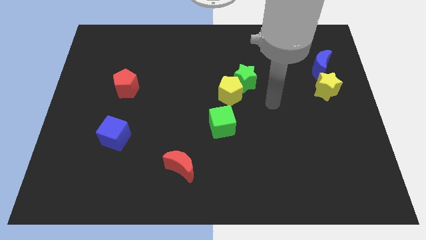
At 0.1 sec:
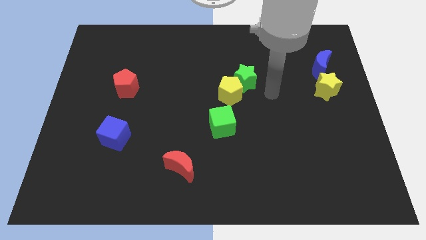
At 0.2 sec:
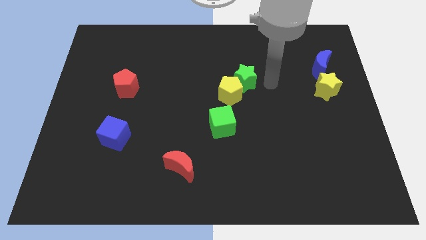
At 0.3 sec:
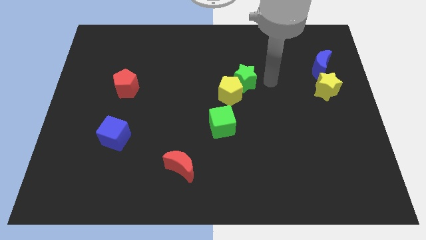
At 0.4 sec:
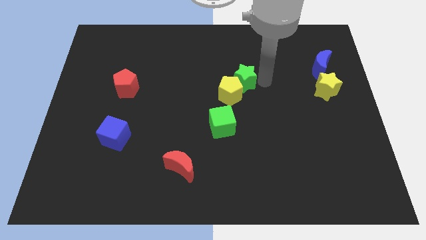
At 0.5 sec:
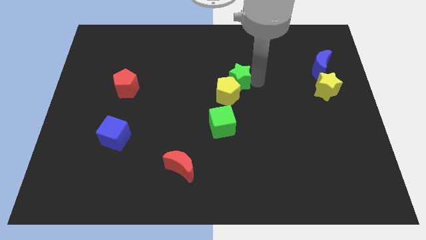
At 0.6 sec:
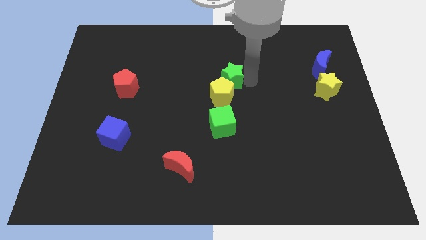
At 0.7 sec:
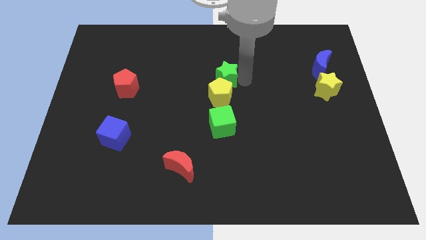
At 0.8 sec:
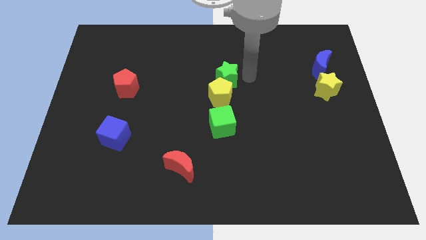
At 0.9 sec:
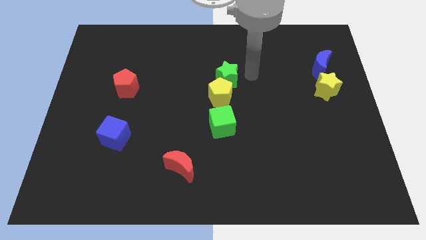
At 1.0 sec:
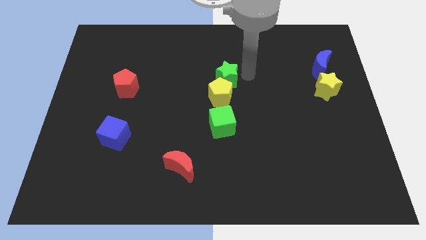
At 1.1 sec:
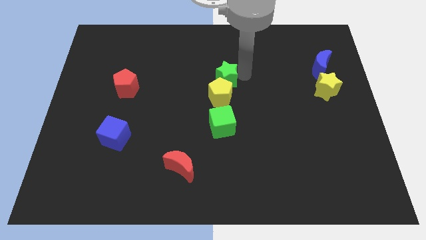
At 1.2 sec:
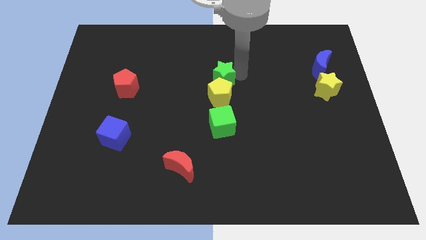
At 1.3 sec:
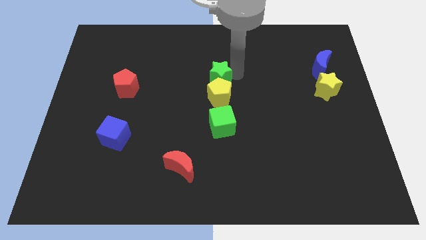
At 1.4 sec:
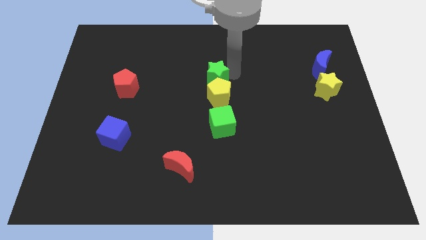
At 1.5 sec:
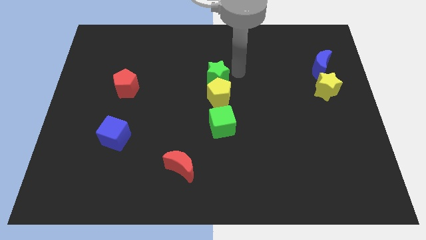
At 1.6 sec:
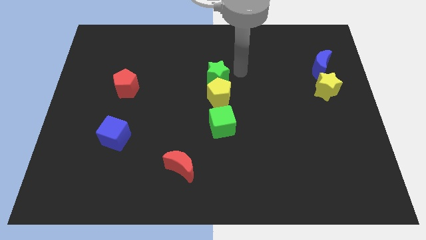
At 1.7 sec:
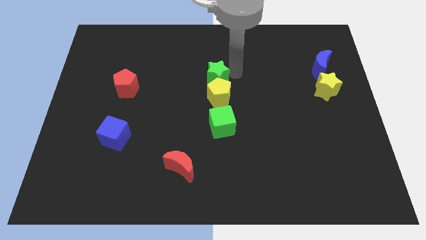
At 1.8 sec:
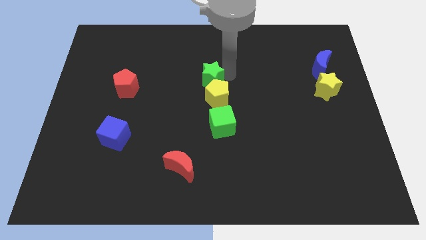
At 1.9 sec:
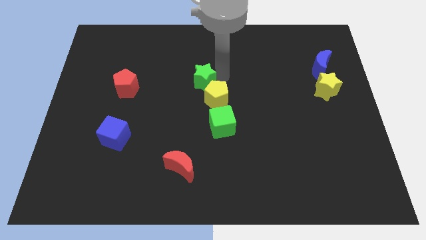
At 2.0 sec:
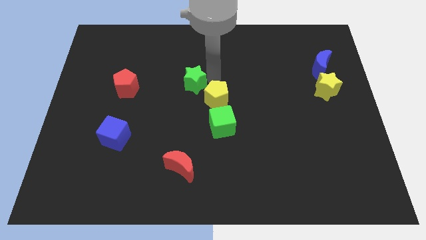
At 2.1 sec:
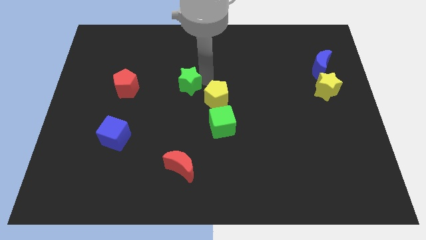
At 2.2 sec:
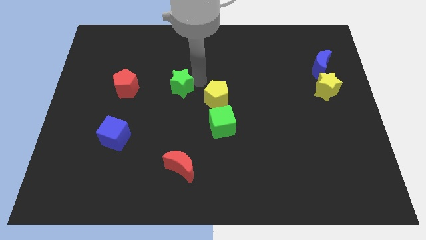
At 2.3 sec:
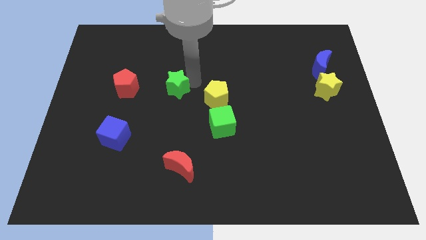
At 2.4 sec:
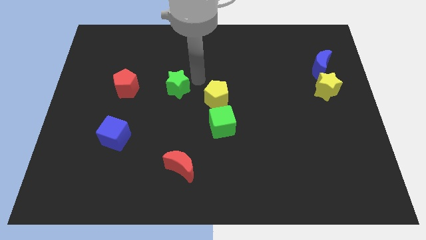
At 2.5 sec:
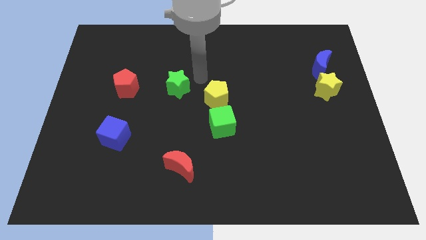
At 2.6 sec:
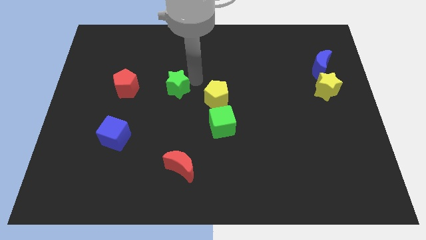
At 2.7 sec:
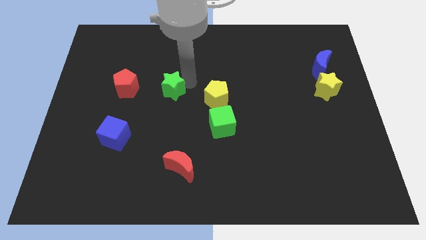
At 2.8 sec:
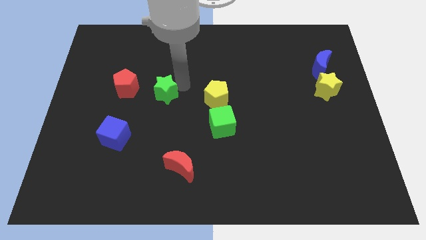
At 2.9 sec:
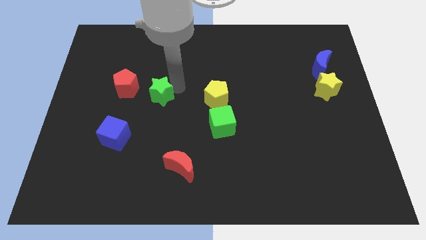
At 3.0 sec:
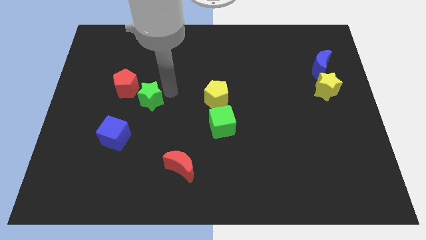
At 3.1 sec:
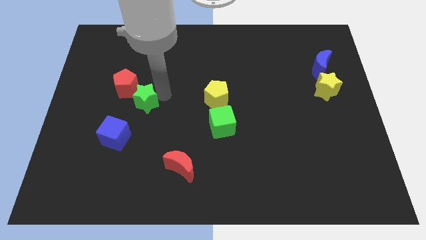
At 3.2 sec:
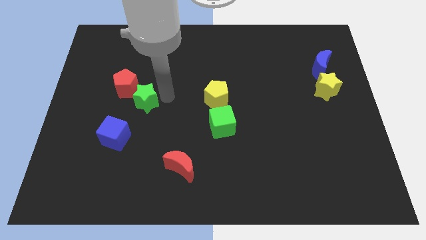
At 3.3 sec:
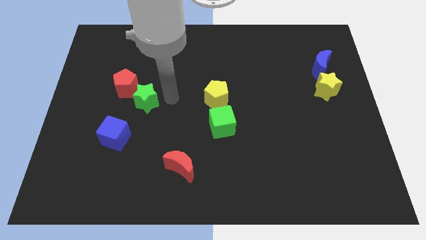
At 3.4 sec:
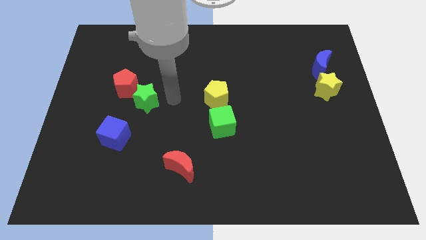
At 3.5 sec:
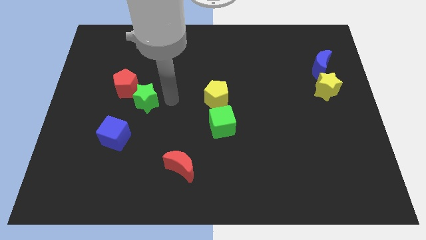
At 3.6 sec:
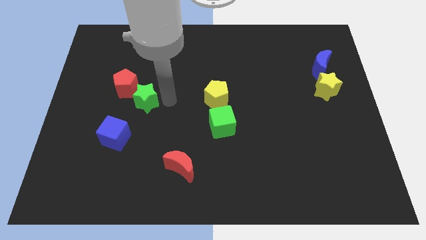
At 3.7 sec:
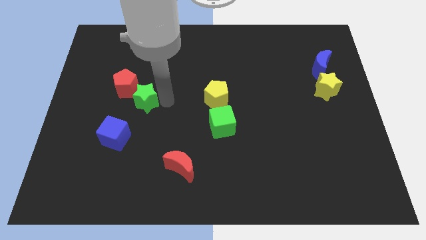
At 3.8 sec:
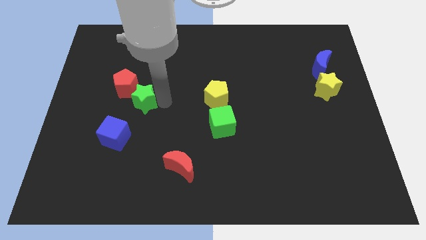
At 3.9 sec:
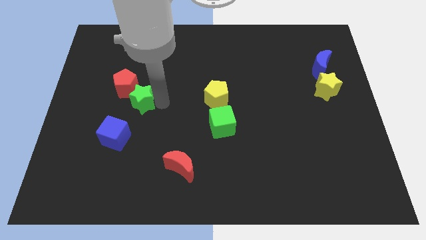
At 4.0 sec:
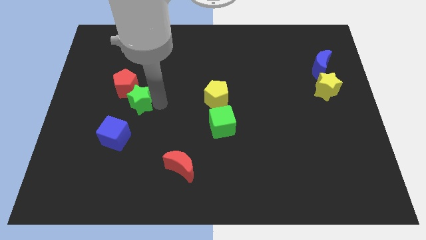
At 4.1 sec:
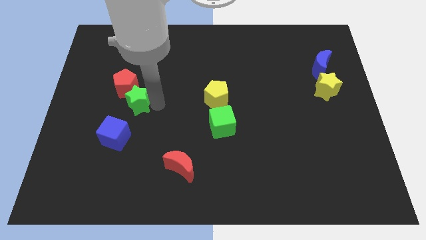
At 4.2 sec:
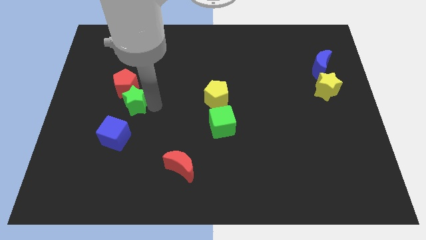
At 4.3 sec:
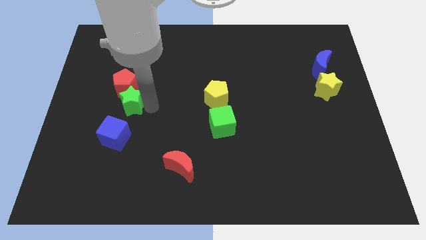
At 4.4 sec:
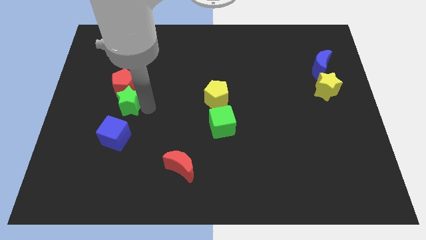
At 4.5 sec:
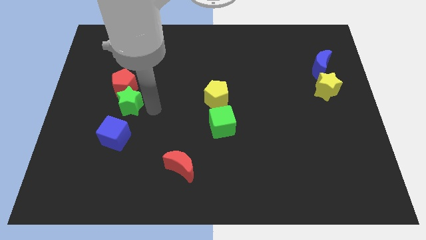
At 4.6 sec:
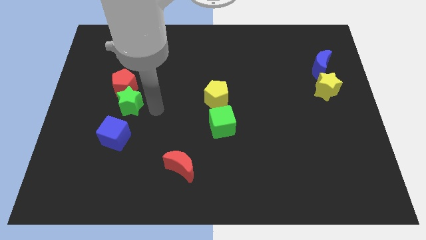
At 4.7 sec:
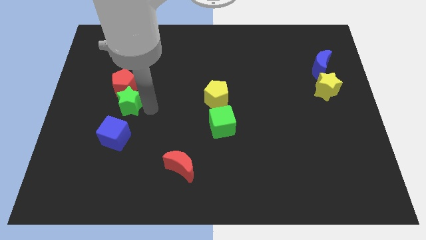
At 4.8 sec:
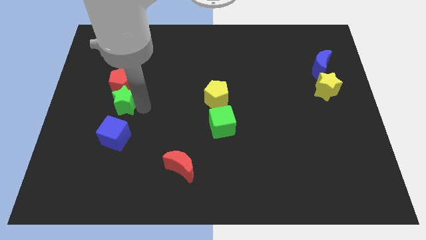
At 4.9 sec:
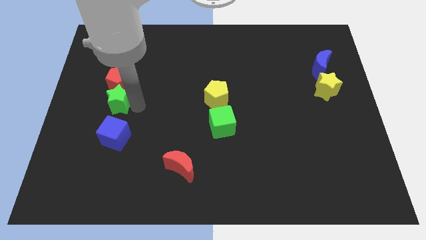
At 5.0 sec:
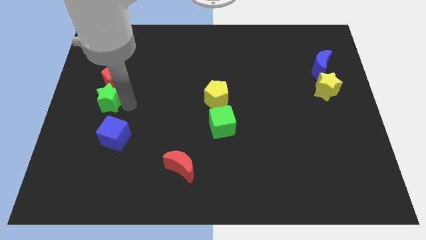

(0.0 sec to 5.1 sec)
push the green star to the left side

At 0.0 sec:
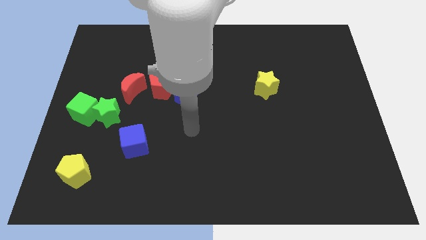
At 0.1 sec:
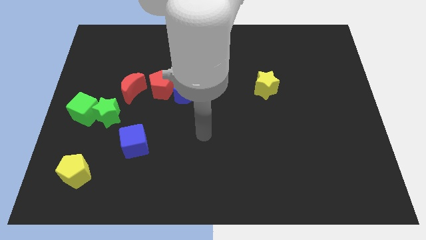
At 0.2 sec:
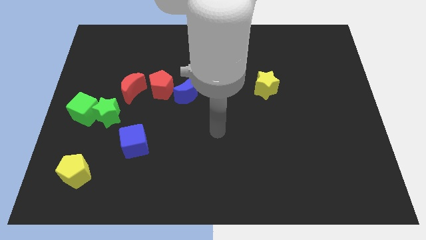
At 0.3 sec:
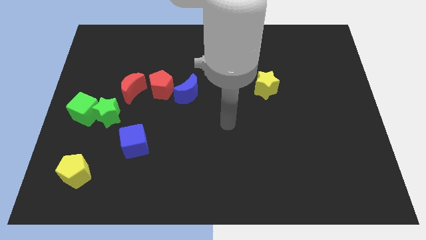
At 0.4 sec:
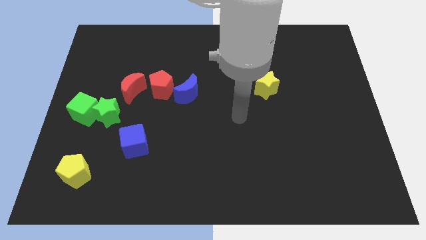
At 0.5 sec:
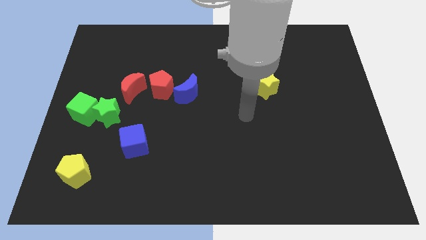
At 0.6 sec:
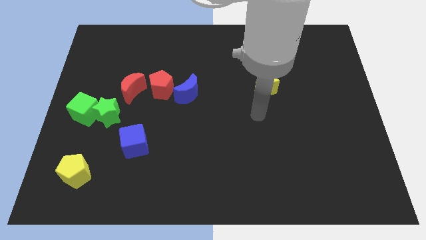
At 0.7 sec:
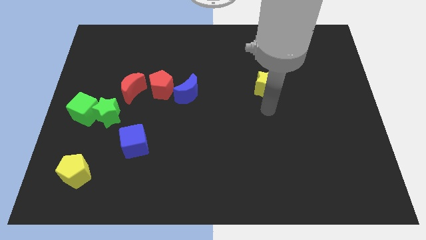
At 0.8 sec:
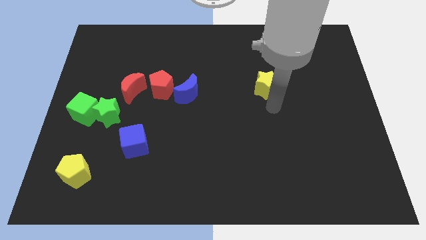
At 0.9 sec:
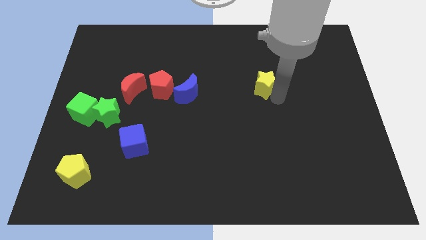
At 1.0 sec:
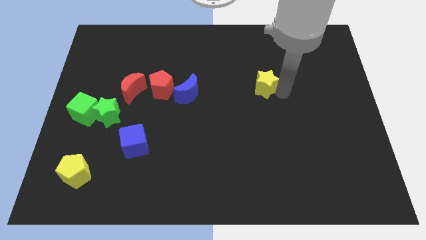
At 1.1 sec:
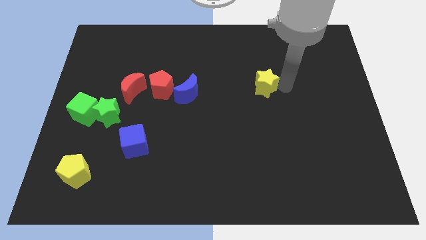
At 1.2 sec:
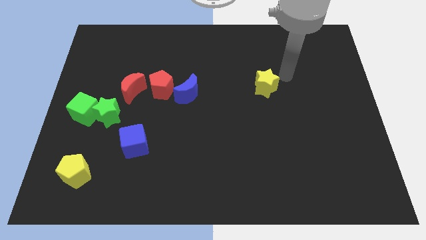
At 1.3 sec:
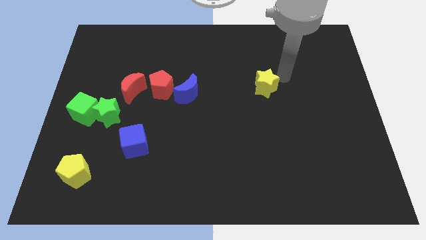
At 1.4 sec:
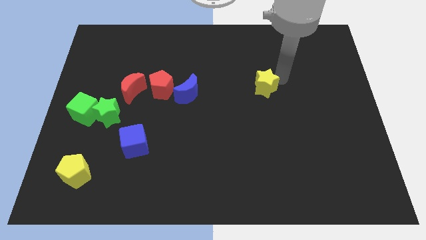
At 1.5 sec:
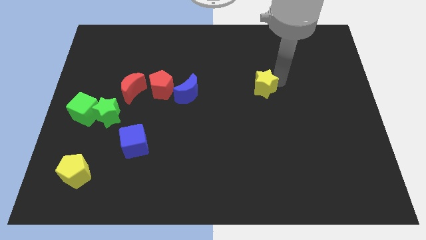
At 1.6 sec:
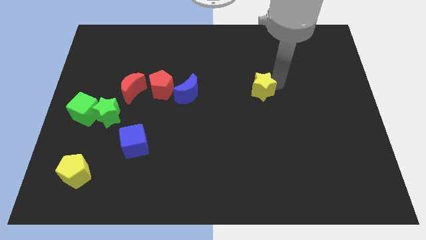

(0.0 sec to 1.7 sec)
move the yellow star to the center of the board

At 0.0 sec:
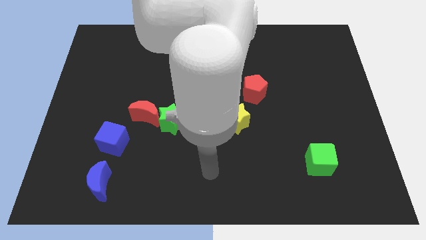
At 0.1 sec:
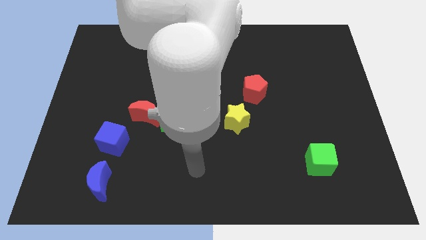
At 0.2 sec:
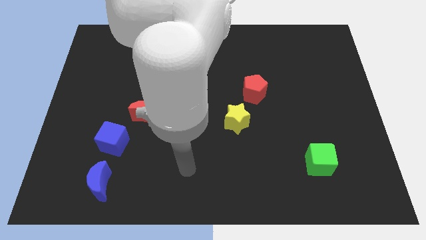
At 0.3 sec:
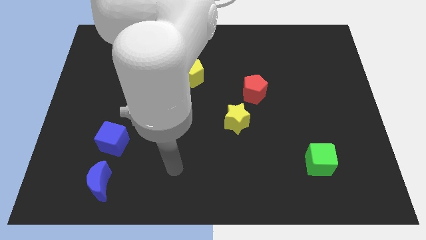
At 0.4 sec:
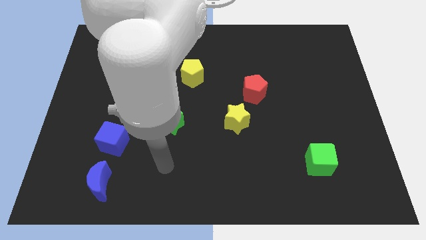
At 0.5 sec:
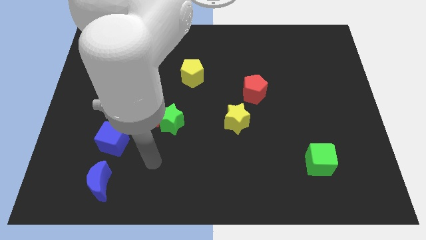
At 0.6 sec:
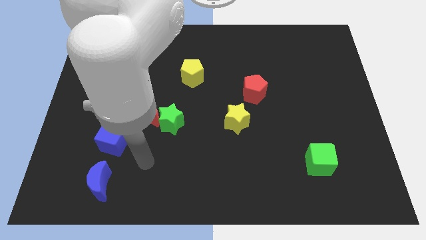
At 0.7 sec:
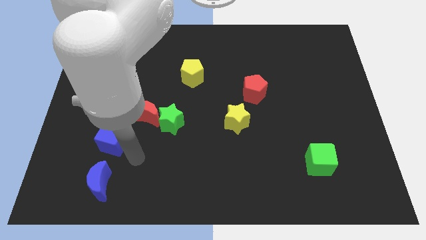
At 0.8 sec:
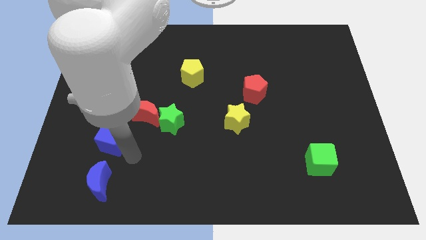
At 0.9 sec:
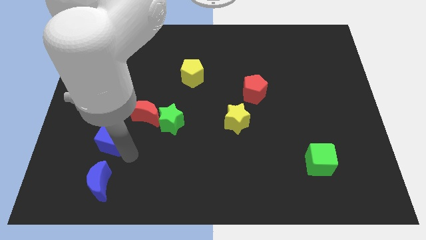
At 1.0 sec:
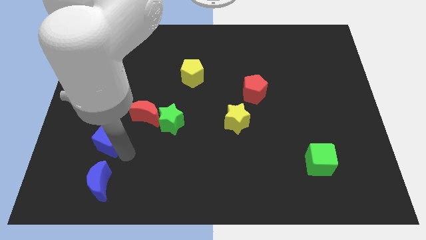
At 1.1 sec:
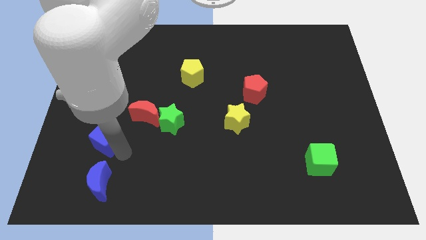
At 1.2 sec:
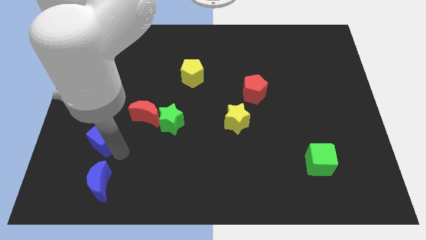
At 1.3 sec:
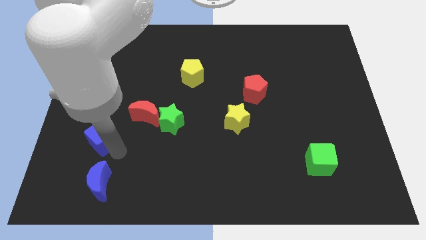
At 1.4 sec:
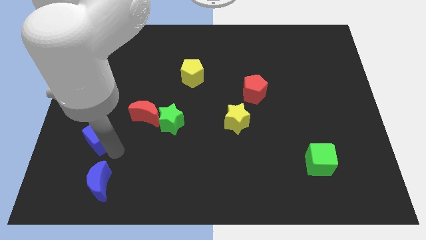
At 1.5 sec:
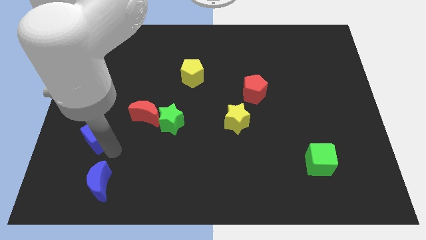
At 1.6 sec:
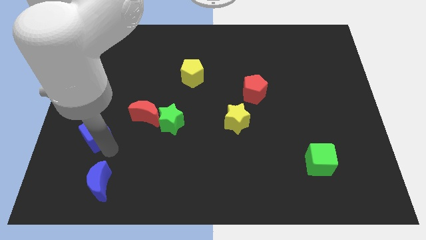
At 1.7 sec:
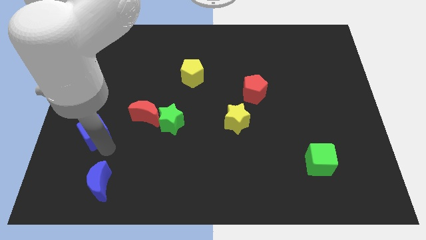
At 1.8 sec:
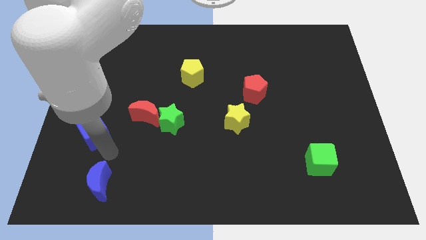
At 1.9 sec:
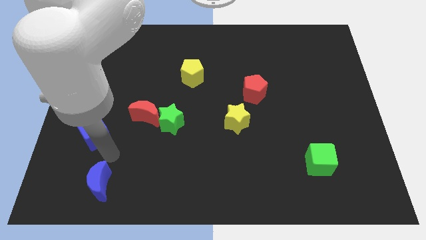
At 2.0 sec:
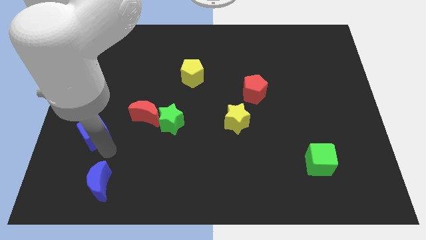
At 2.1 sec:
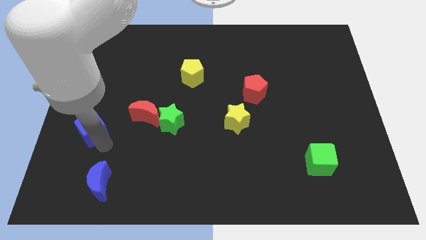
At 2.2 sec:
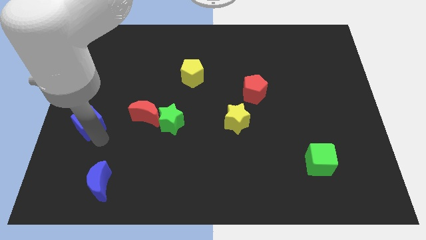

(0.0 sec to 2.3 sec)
slide the blue cube to the left side
